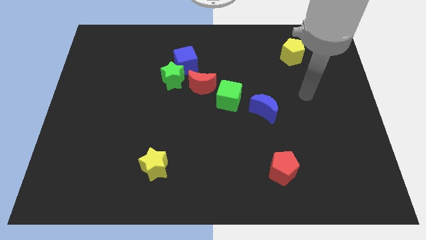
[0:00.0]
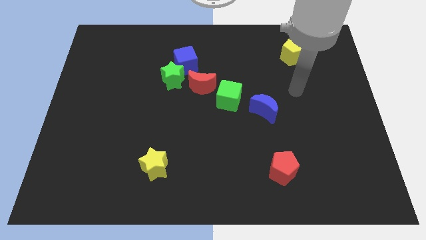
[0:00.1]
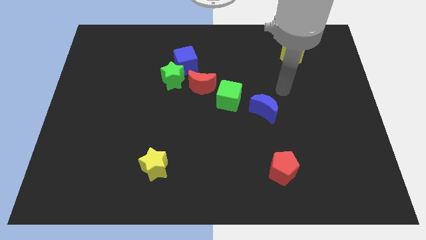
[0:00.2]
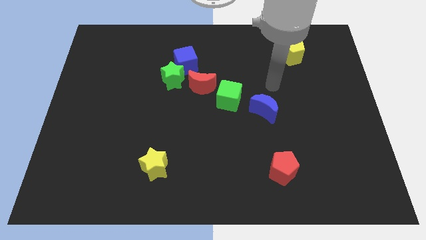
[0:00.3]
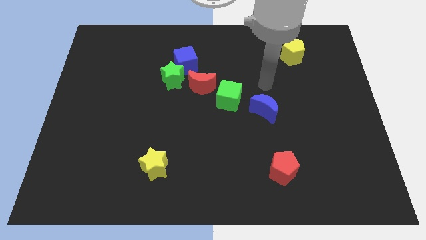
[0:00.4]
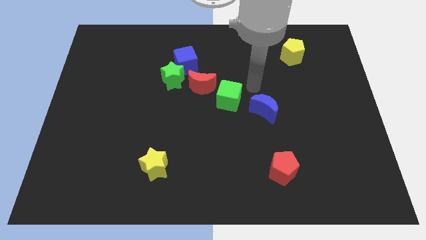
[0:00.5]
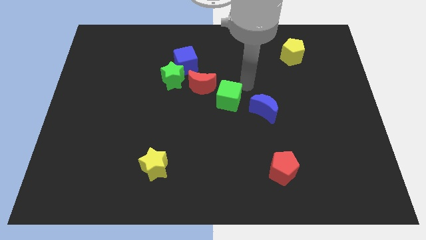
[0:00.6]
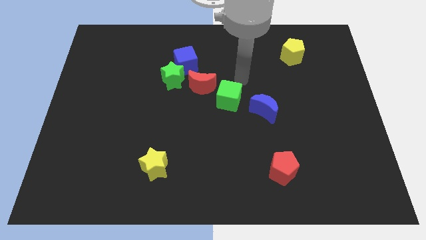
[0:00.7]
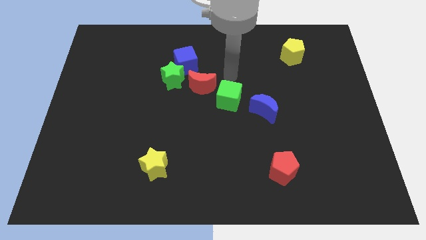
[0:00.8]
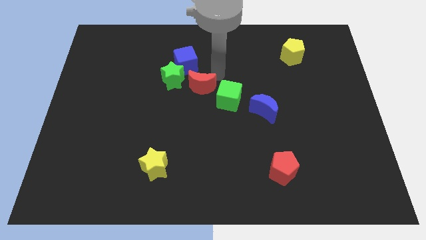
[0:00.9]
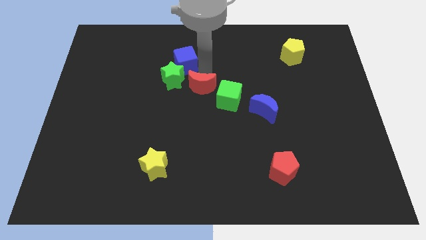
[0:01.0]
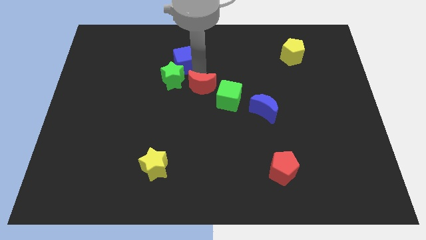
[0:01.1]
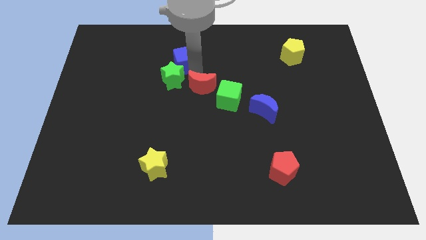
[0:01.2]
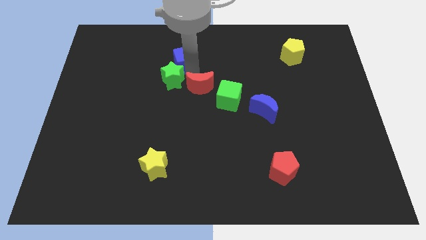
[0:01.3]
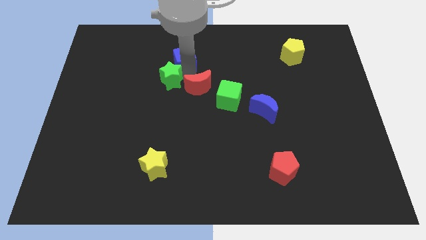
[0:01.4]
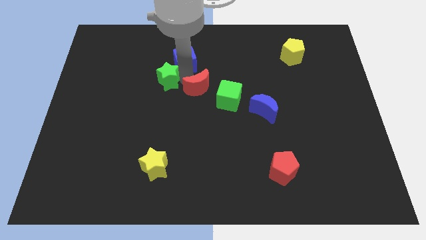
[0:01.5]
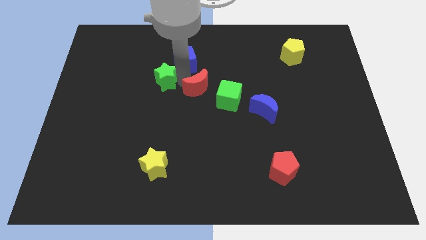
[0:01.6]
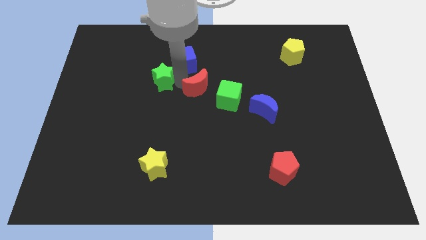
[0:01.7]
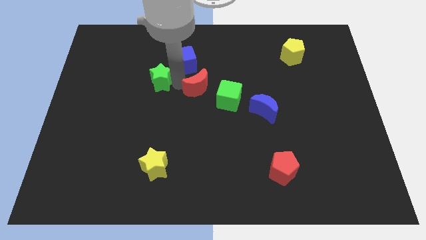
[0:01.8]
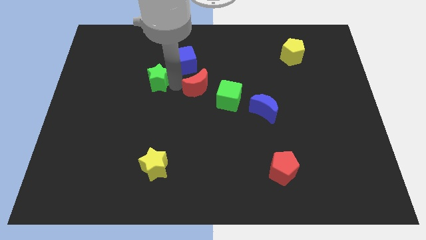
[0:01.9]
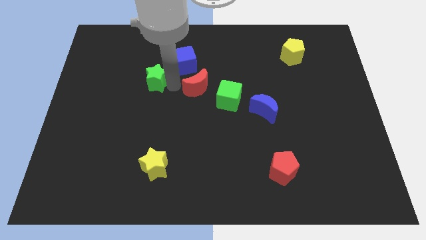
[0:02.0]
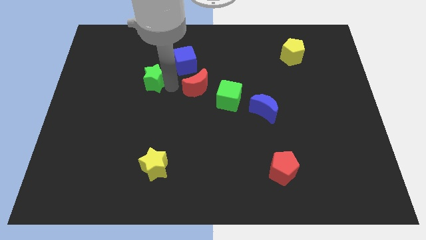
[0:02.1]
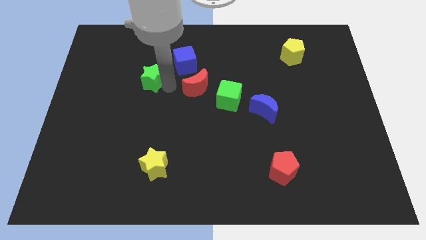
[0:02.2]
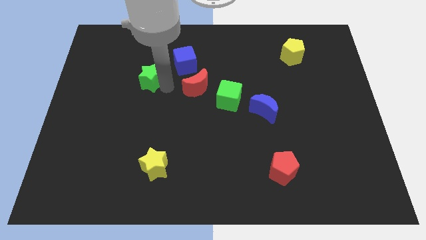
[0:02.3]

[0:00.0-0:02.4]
separate the green star from the blue cube and red moon

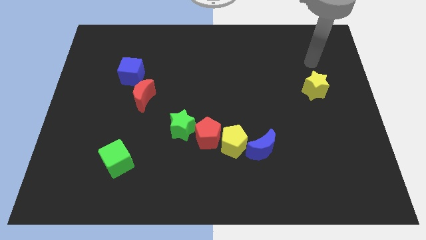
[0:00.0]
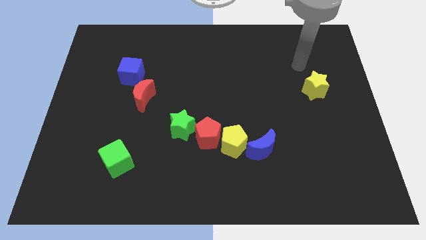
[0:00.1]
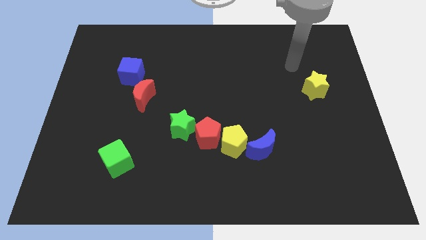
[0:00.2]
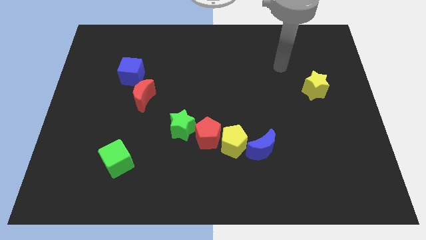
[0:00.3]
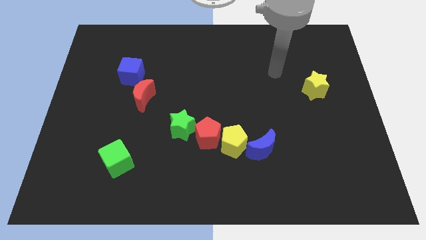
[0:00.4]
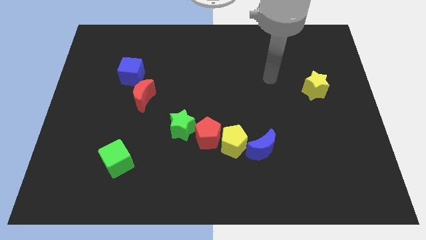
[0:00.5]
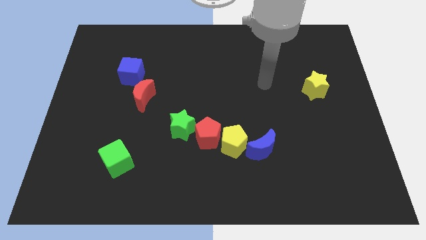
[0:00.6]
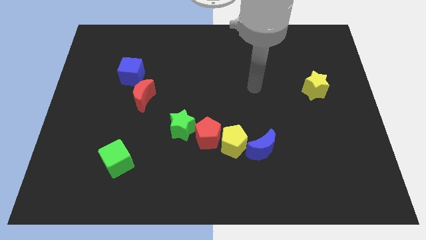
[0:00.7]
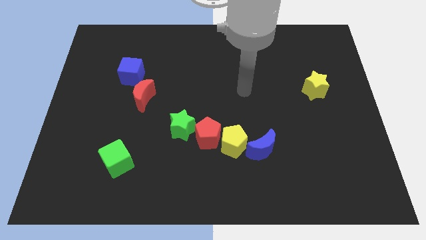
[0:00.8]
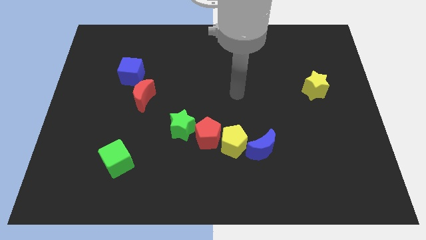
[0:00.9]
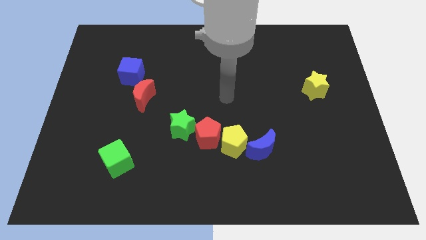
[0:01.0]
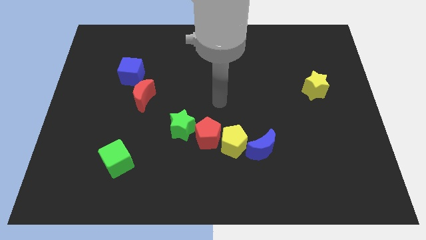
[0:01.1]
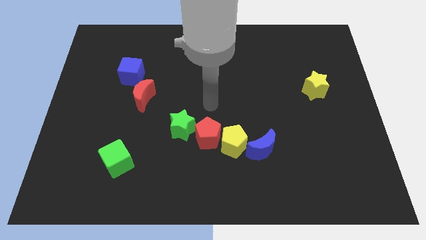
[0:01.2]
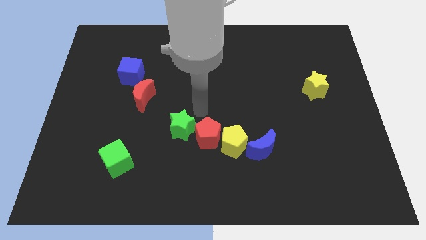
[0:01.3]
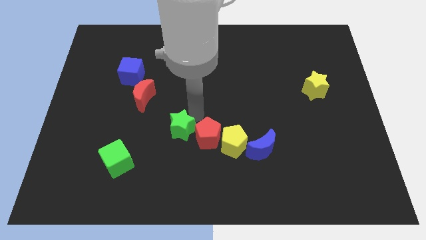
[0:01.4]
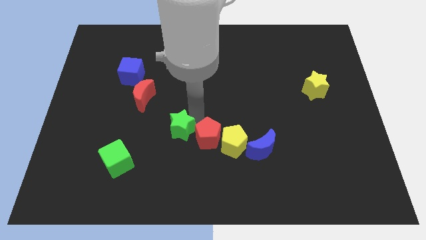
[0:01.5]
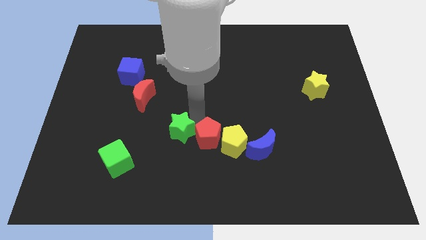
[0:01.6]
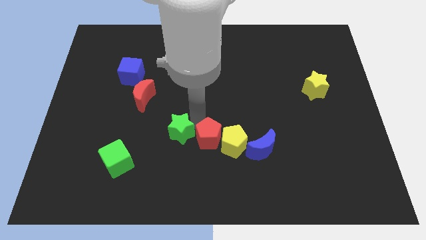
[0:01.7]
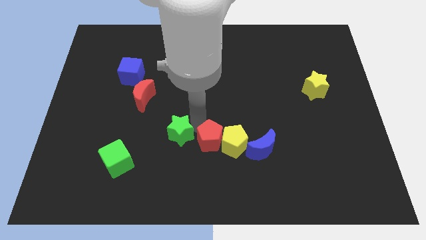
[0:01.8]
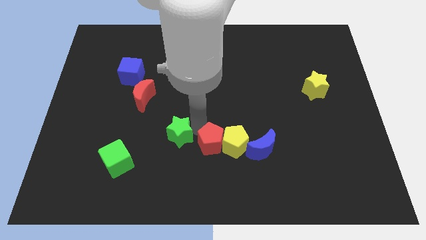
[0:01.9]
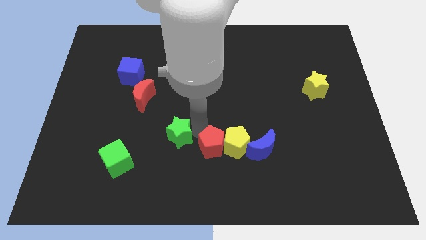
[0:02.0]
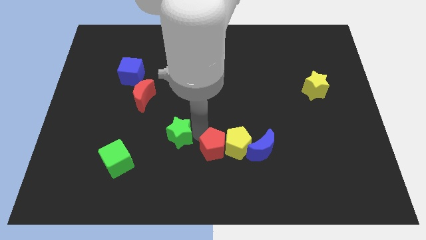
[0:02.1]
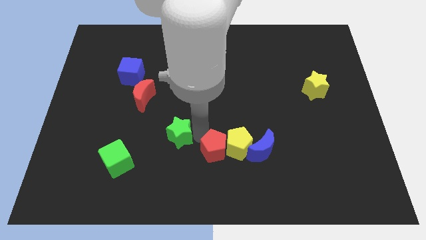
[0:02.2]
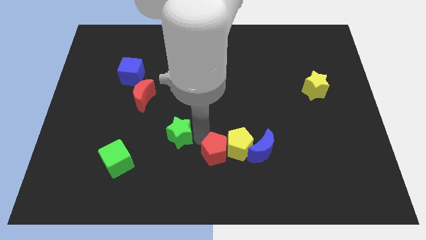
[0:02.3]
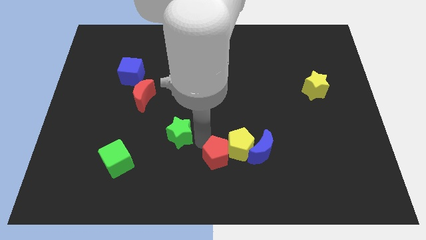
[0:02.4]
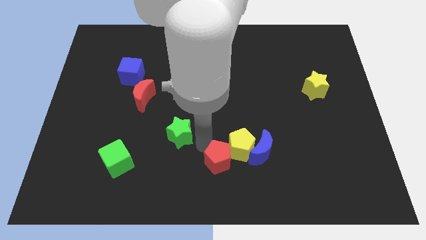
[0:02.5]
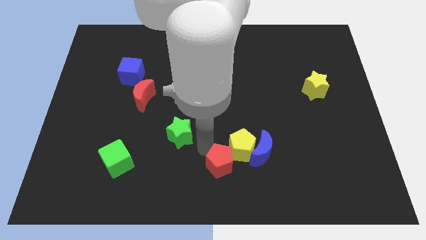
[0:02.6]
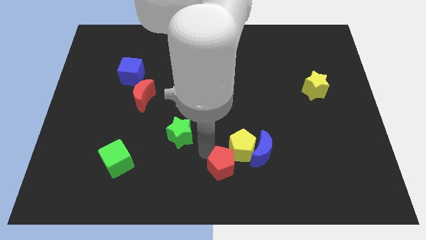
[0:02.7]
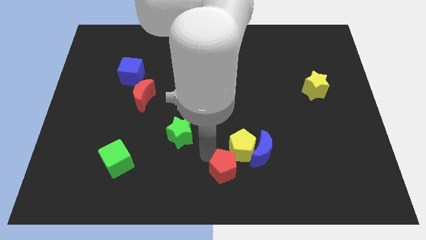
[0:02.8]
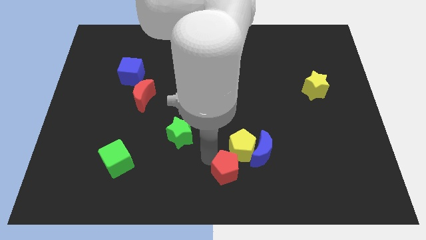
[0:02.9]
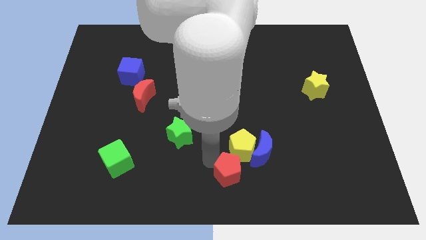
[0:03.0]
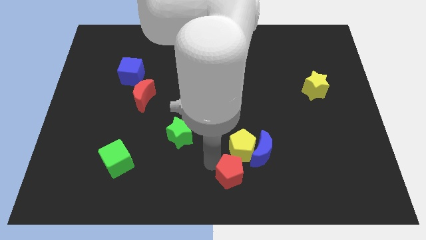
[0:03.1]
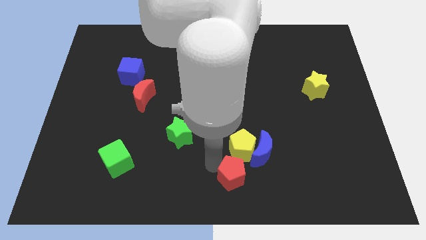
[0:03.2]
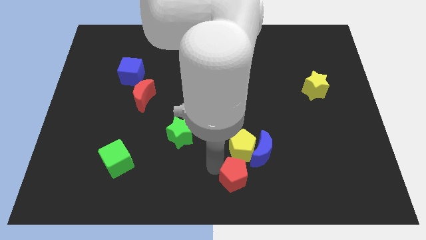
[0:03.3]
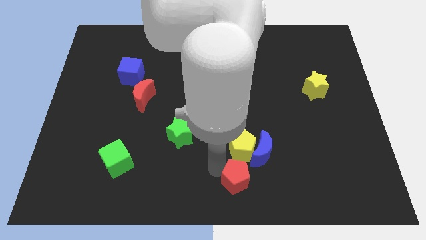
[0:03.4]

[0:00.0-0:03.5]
separate the red pentagon from the yellow pentagon and green star

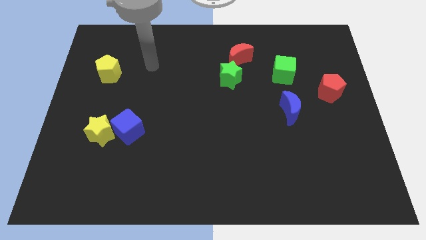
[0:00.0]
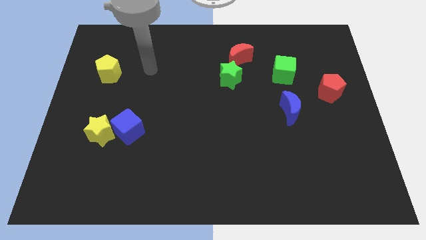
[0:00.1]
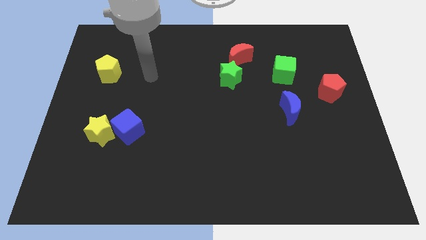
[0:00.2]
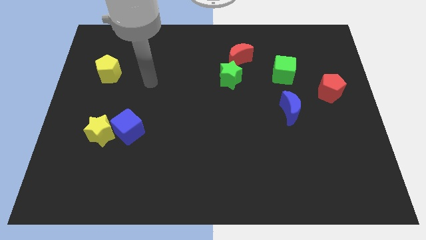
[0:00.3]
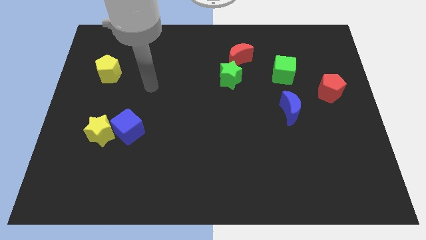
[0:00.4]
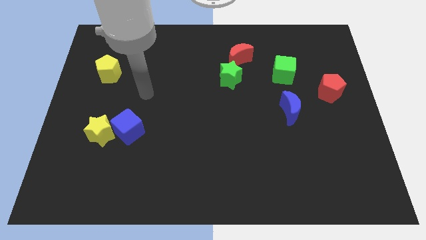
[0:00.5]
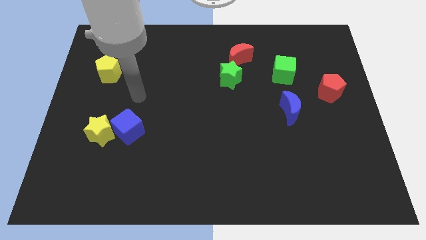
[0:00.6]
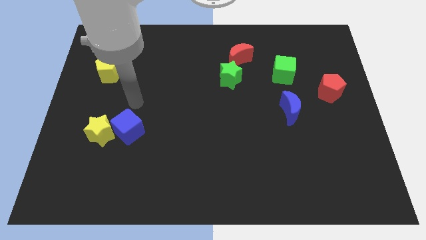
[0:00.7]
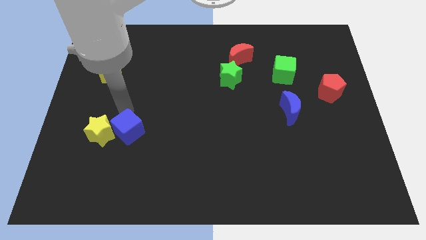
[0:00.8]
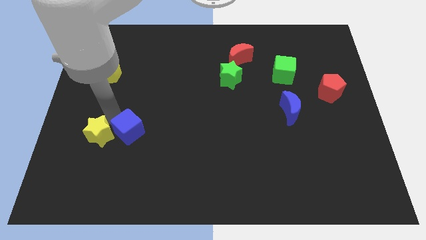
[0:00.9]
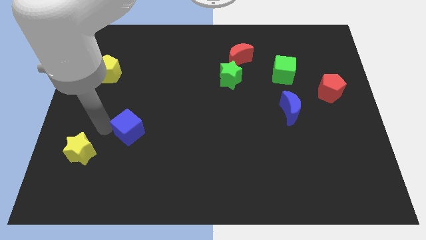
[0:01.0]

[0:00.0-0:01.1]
separate the blue cube from the yellow star

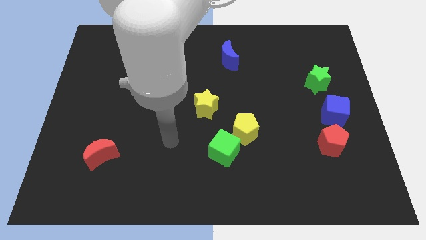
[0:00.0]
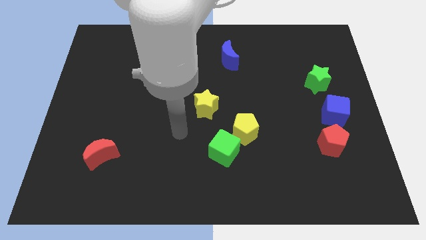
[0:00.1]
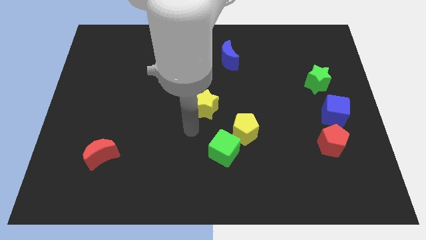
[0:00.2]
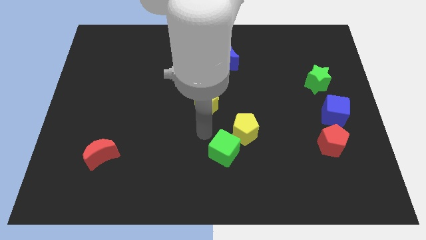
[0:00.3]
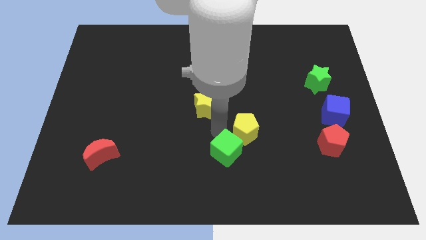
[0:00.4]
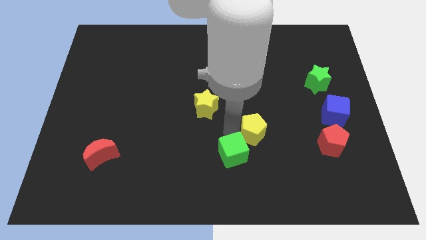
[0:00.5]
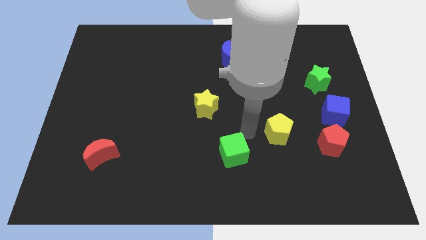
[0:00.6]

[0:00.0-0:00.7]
move the green cube away from the yellow pentagon

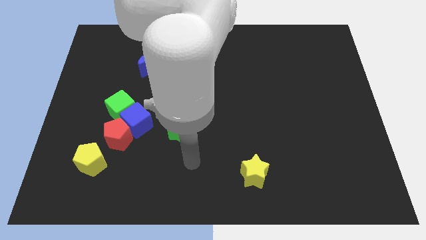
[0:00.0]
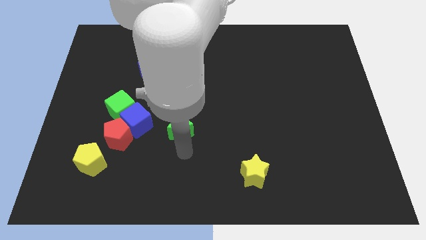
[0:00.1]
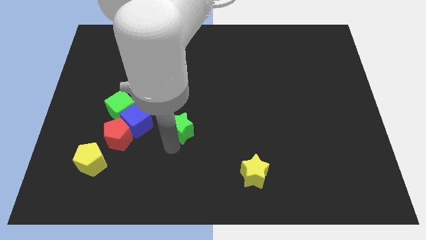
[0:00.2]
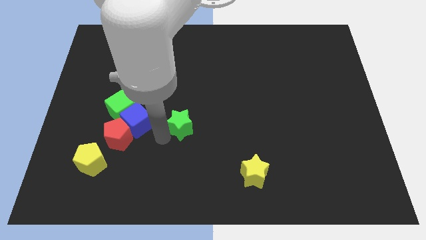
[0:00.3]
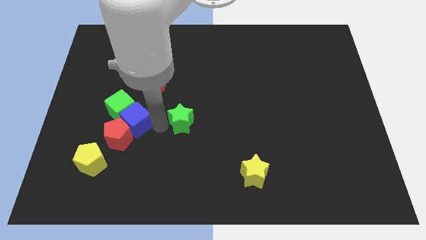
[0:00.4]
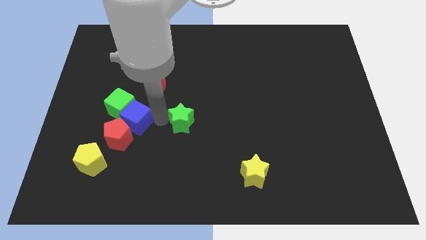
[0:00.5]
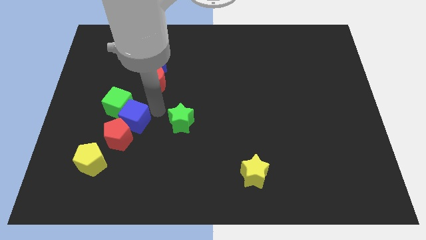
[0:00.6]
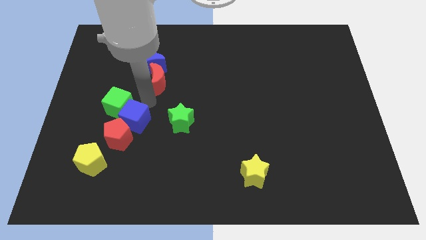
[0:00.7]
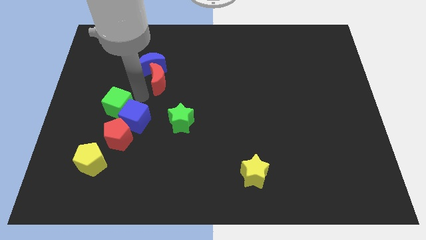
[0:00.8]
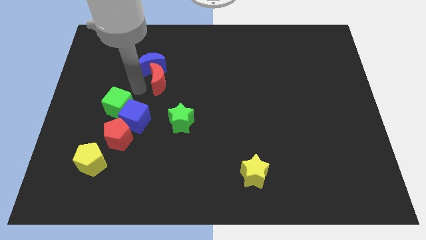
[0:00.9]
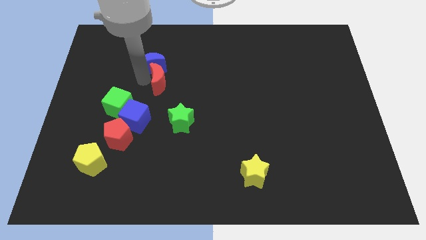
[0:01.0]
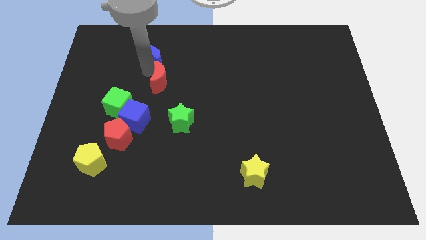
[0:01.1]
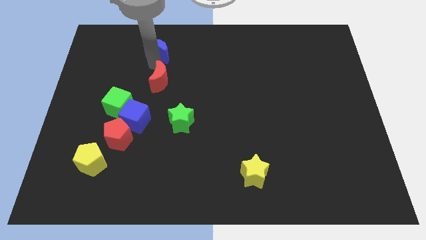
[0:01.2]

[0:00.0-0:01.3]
pull the red moon apart from the blue moon

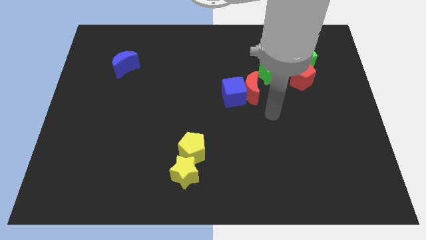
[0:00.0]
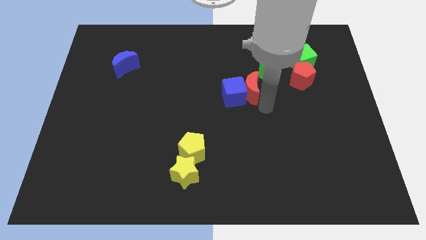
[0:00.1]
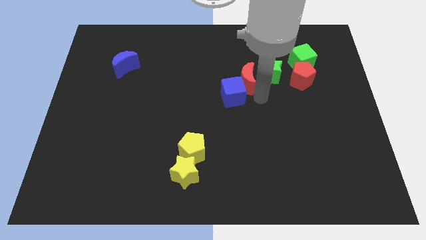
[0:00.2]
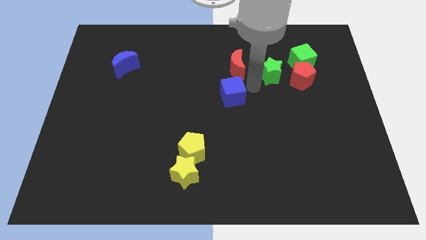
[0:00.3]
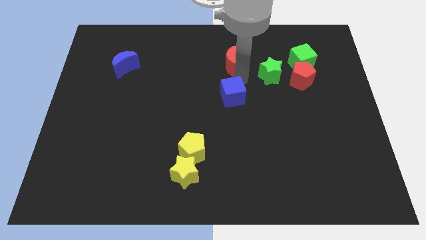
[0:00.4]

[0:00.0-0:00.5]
pull the blue cube apart from the red moon
